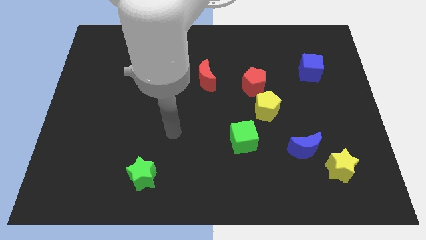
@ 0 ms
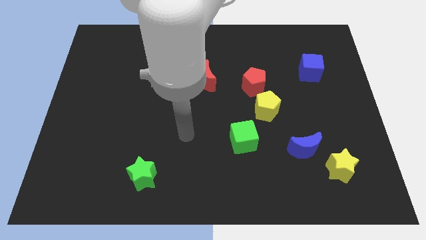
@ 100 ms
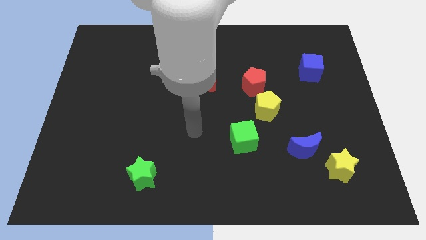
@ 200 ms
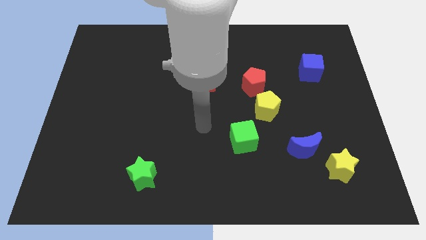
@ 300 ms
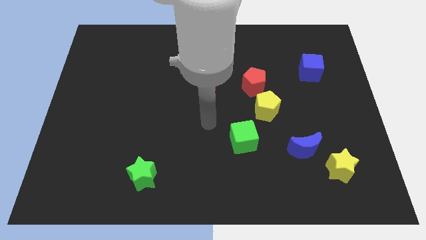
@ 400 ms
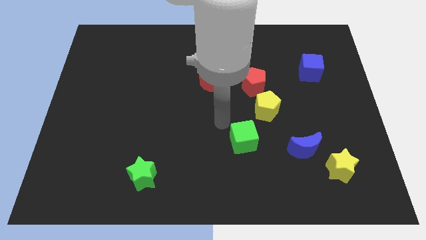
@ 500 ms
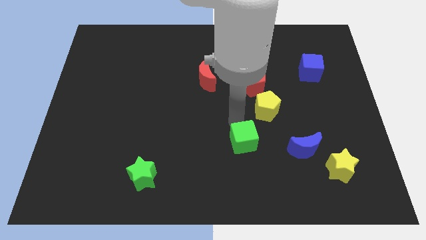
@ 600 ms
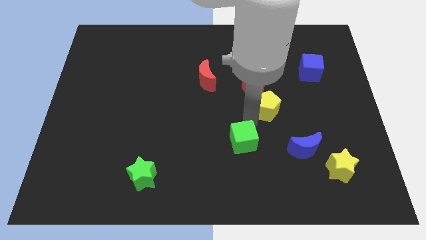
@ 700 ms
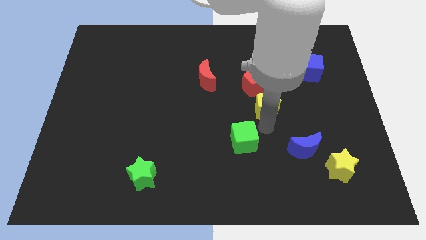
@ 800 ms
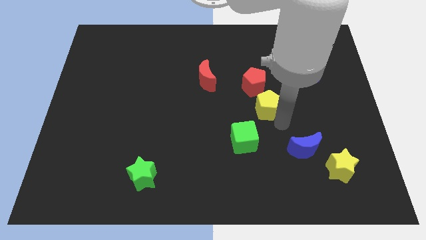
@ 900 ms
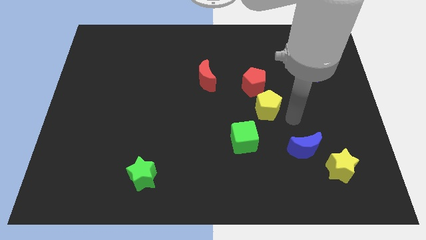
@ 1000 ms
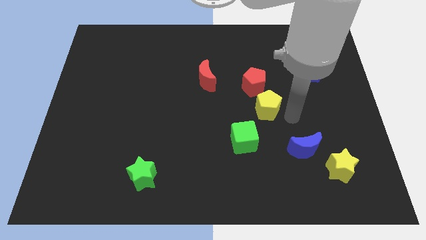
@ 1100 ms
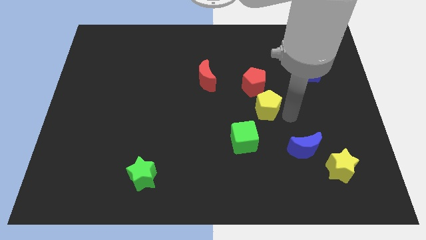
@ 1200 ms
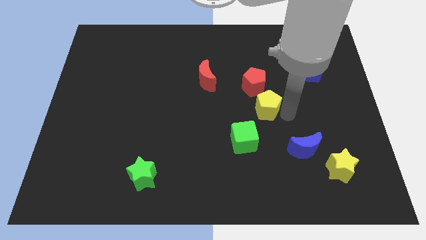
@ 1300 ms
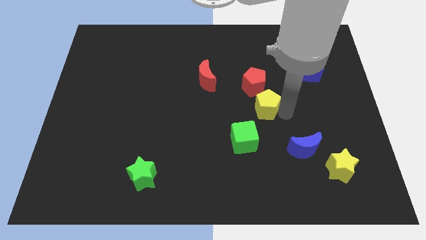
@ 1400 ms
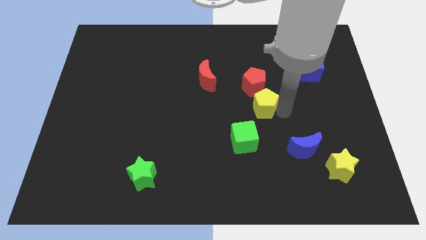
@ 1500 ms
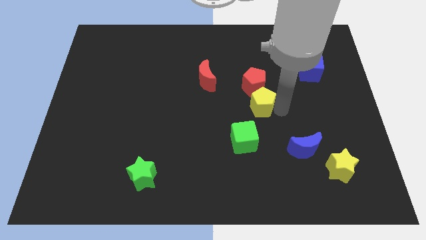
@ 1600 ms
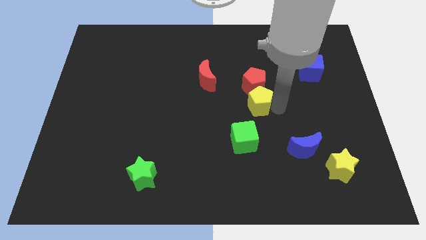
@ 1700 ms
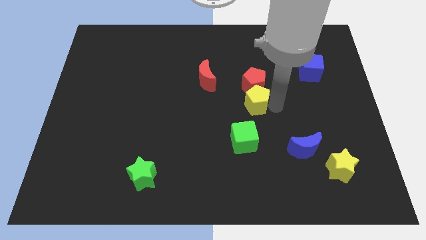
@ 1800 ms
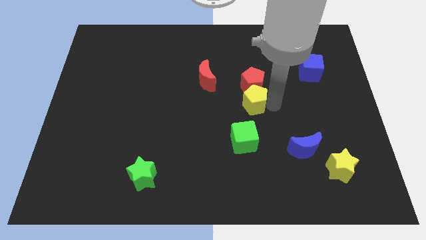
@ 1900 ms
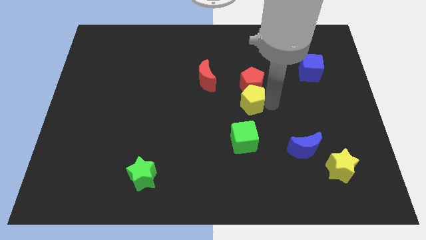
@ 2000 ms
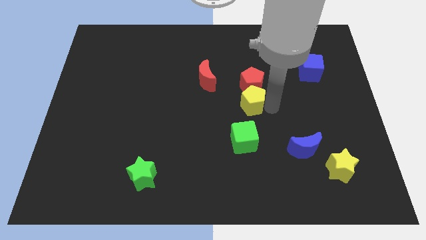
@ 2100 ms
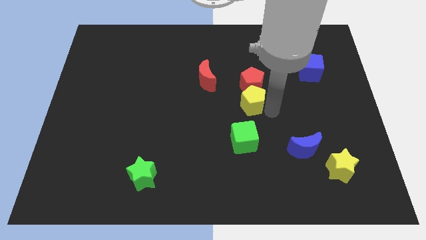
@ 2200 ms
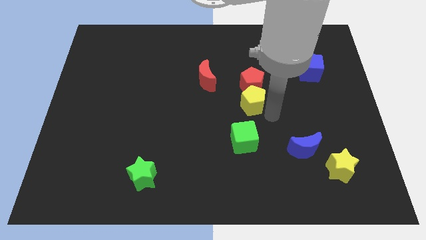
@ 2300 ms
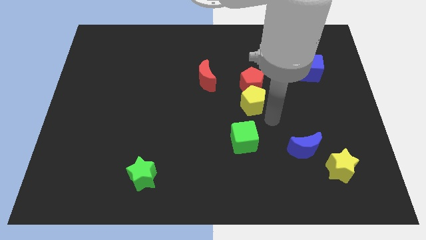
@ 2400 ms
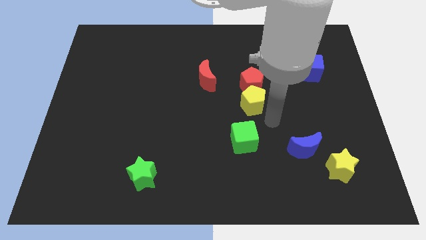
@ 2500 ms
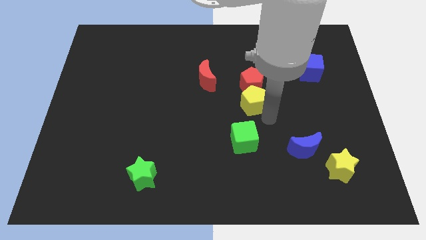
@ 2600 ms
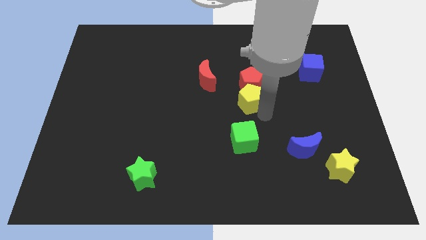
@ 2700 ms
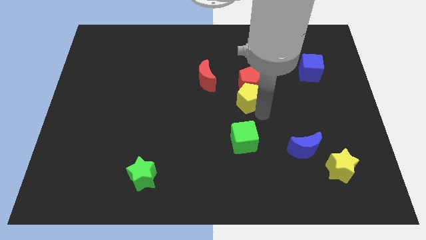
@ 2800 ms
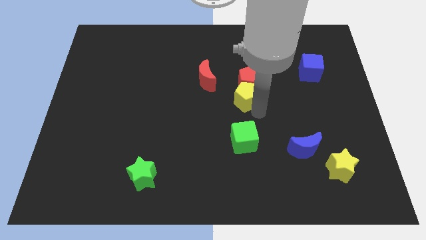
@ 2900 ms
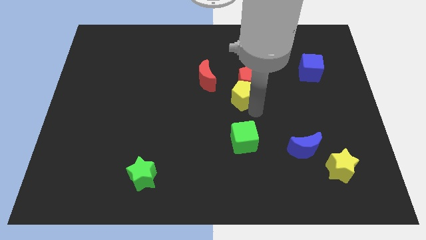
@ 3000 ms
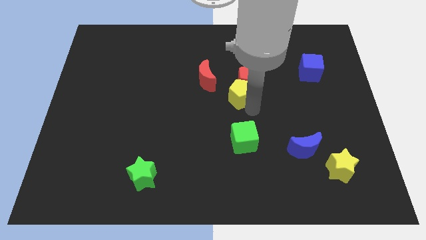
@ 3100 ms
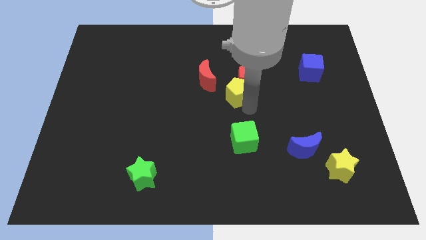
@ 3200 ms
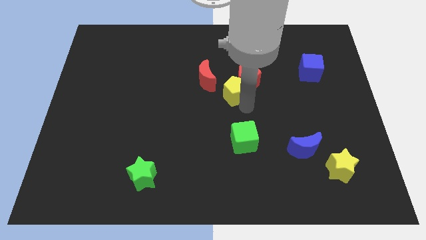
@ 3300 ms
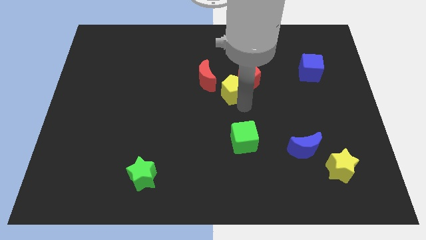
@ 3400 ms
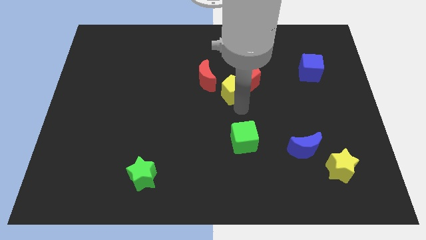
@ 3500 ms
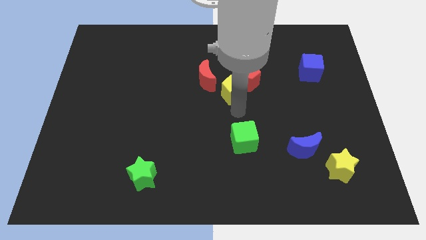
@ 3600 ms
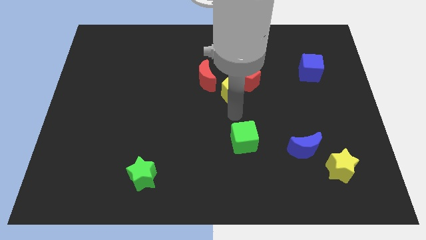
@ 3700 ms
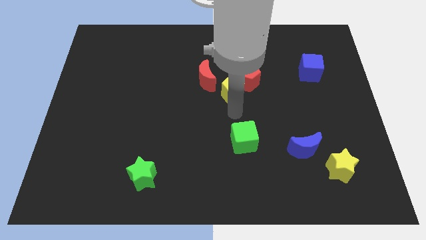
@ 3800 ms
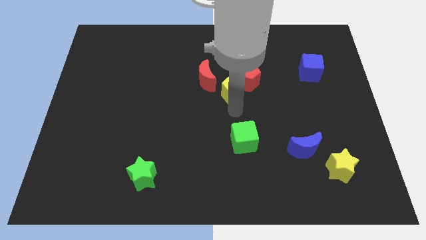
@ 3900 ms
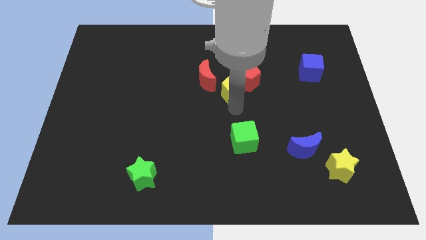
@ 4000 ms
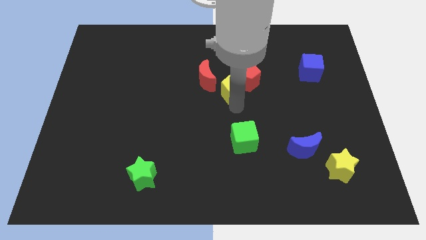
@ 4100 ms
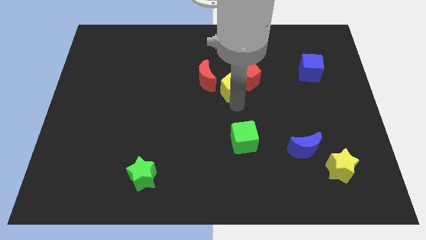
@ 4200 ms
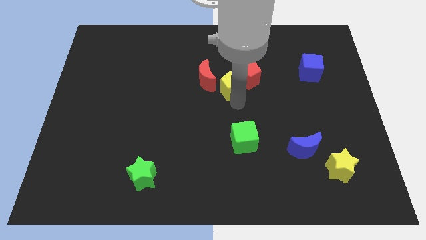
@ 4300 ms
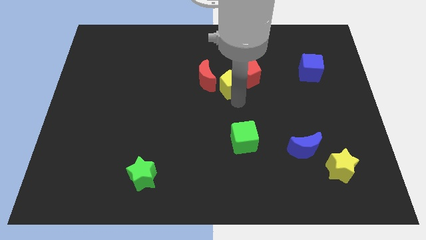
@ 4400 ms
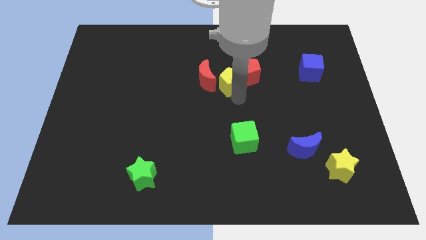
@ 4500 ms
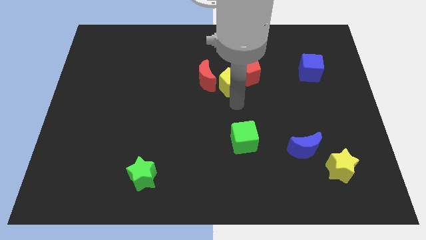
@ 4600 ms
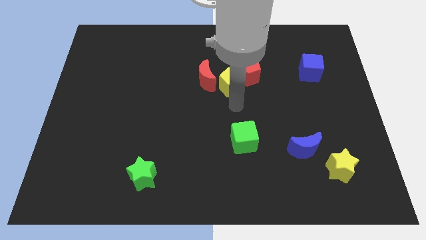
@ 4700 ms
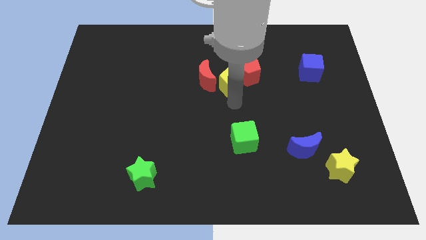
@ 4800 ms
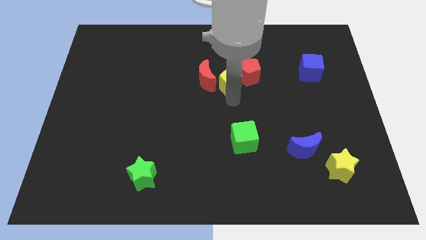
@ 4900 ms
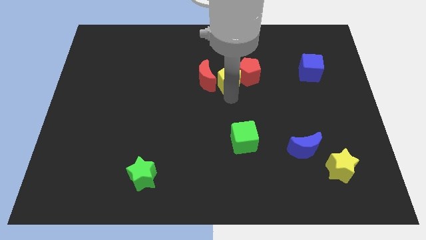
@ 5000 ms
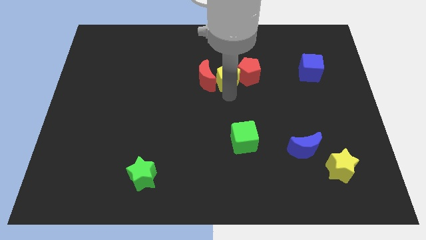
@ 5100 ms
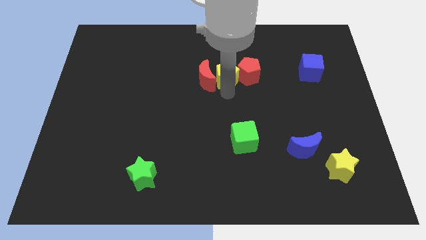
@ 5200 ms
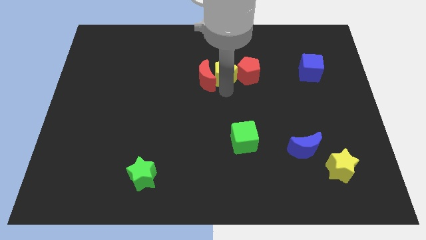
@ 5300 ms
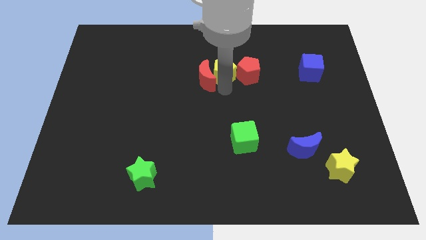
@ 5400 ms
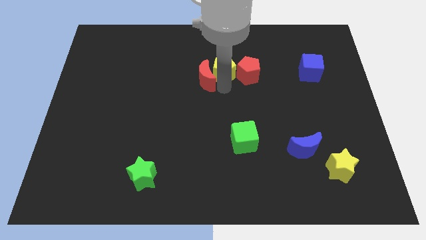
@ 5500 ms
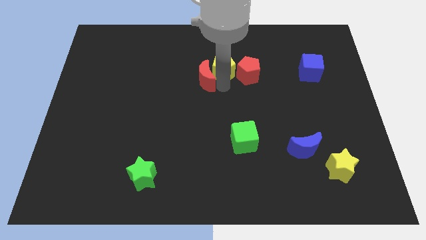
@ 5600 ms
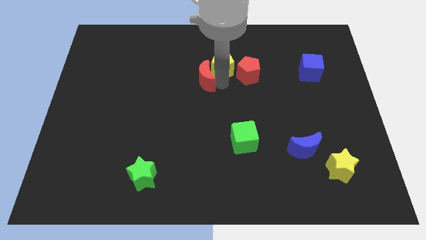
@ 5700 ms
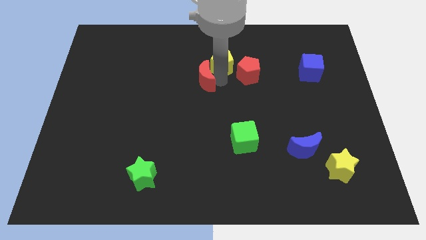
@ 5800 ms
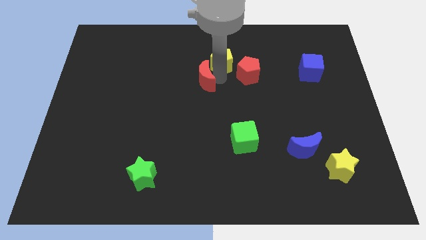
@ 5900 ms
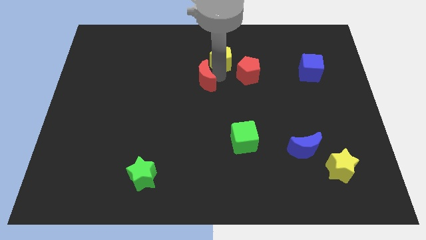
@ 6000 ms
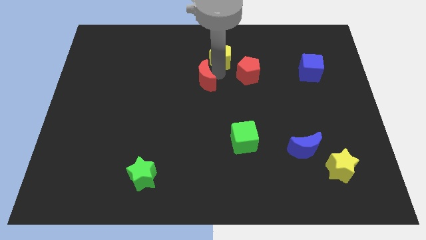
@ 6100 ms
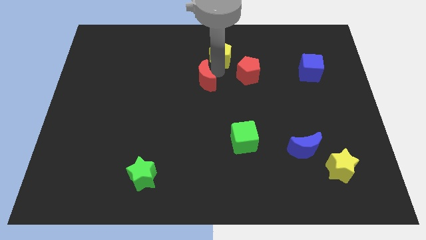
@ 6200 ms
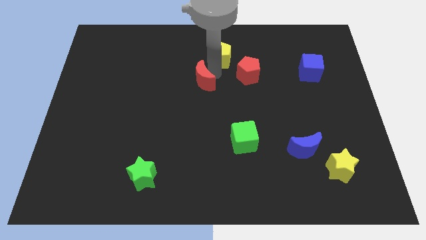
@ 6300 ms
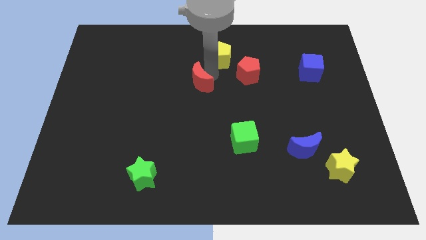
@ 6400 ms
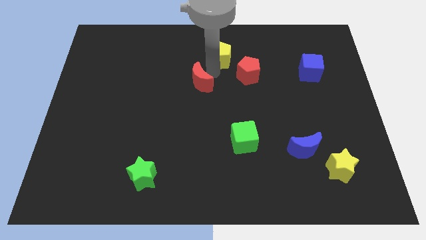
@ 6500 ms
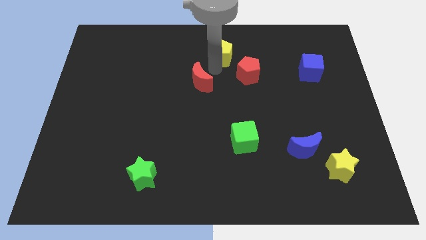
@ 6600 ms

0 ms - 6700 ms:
push the yellow pentagon to the top side
